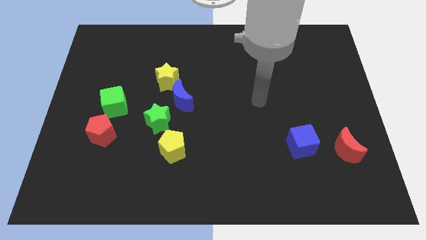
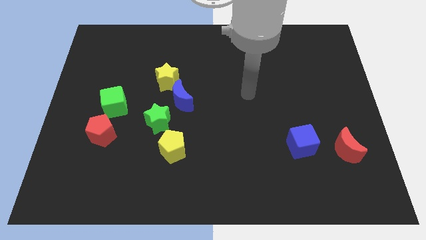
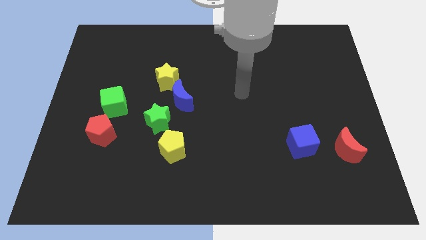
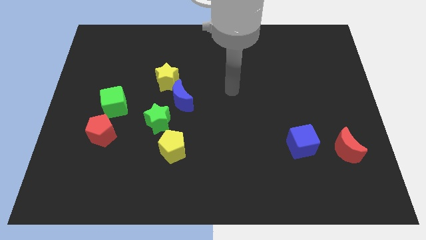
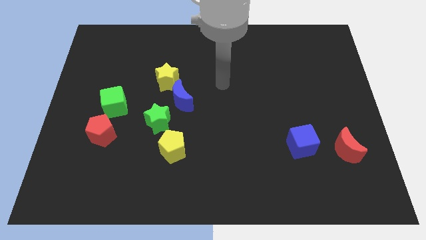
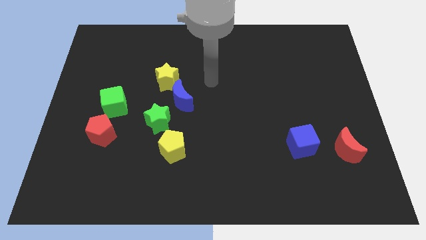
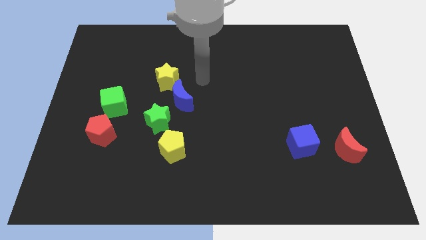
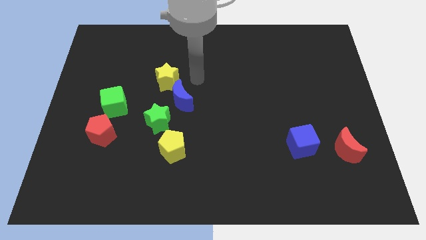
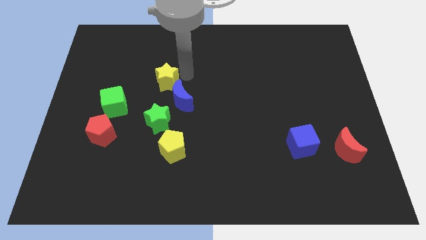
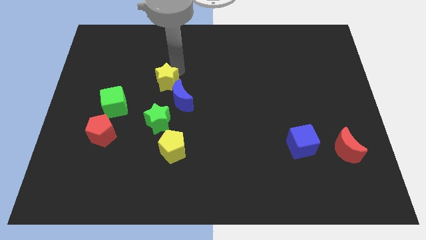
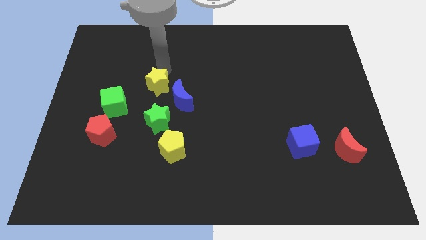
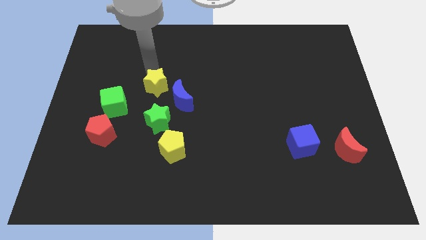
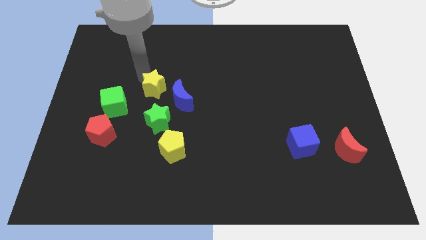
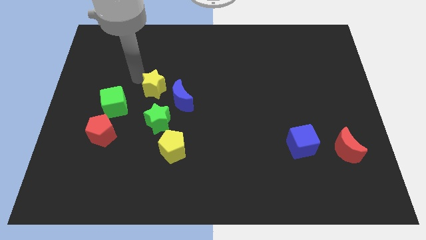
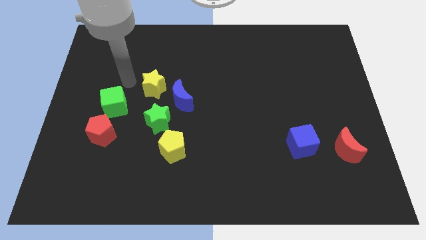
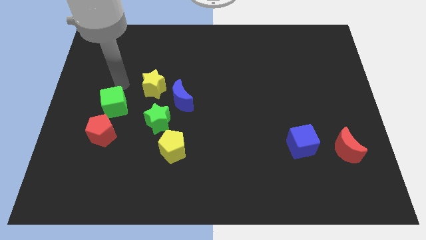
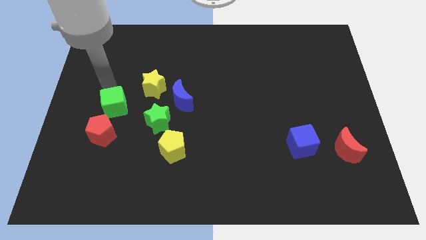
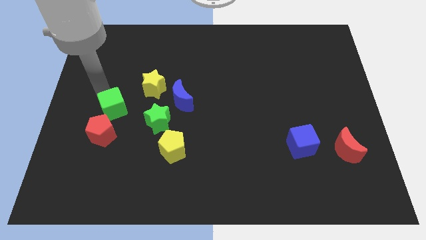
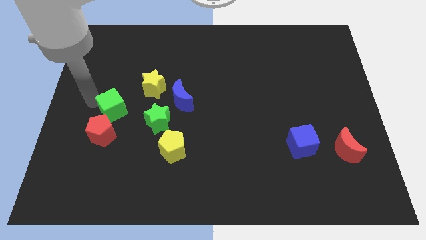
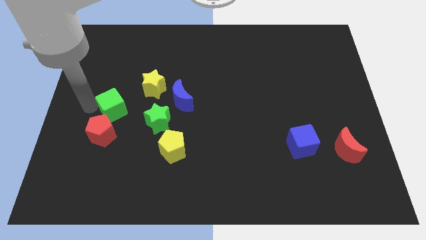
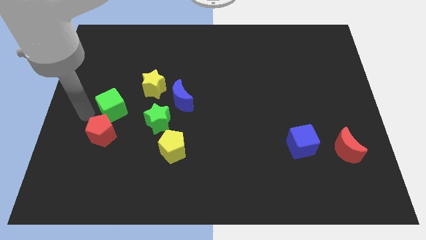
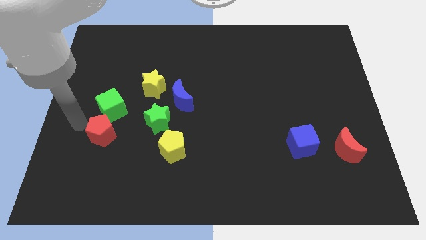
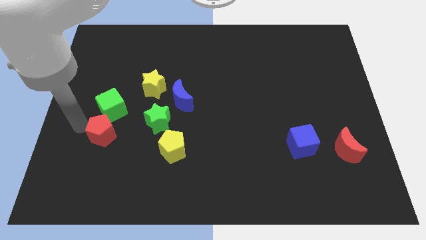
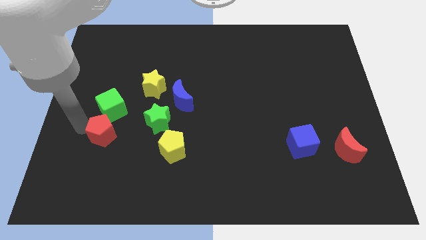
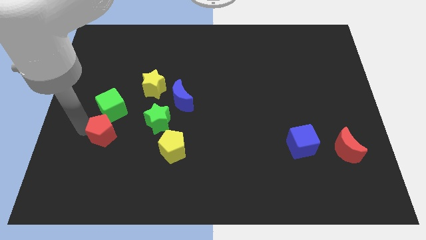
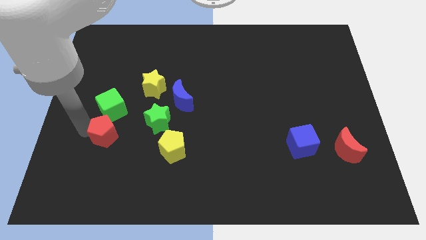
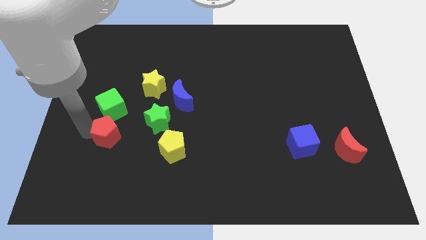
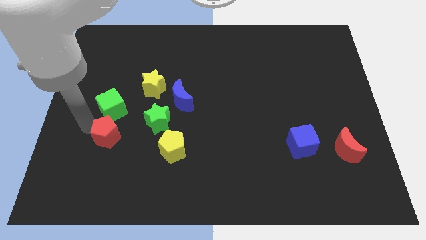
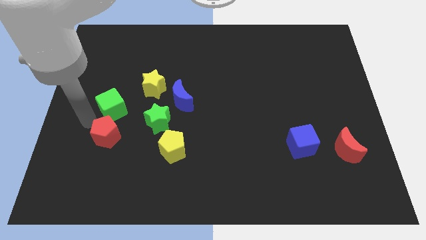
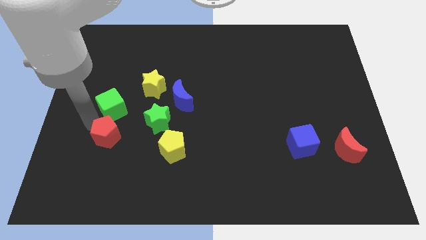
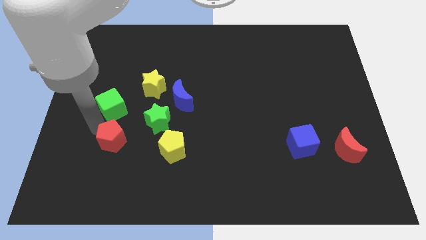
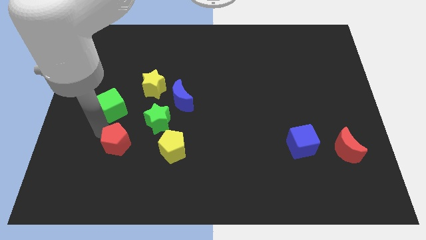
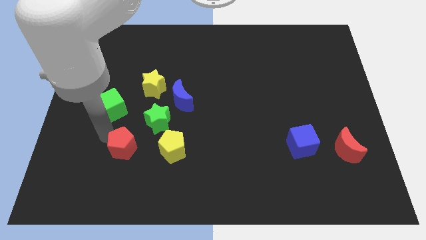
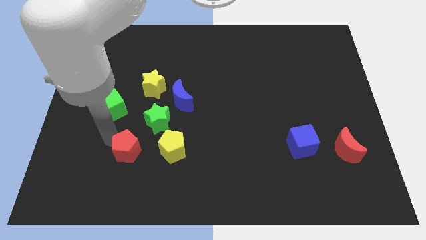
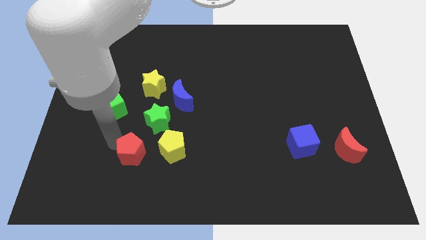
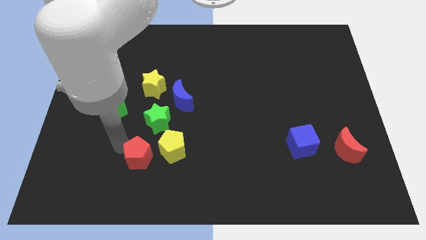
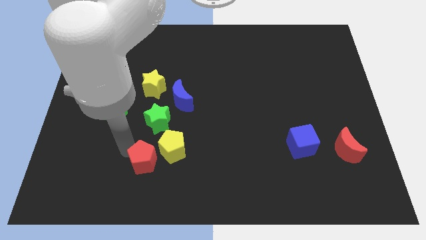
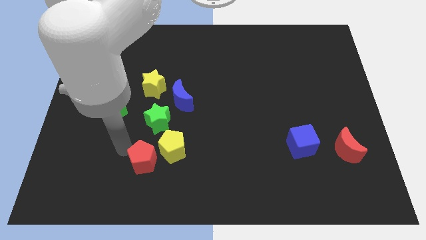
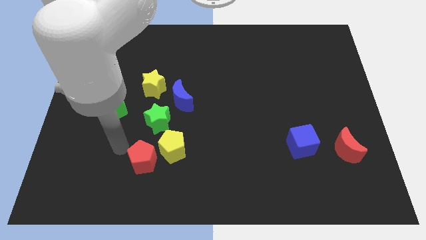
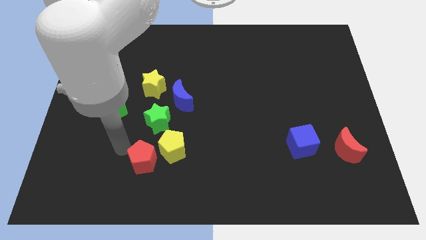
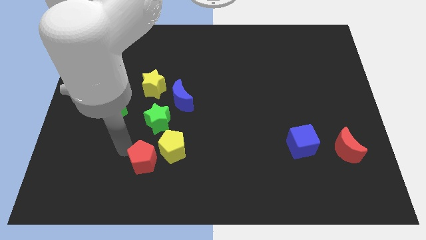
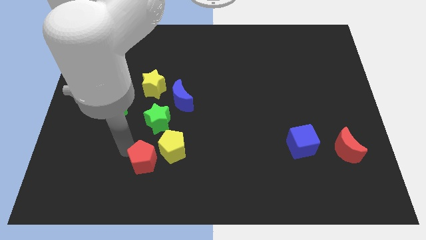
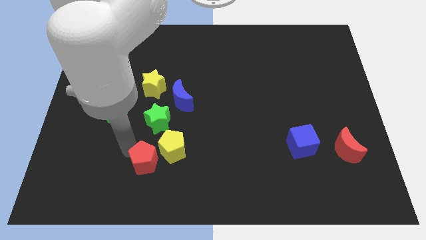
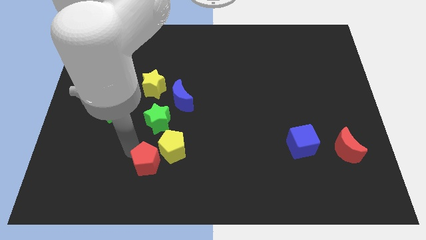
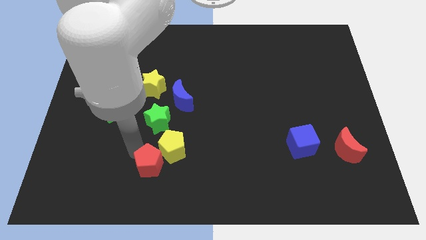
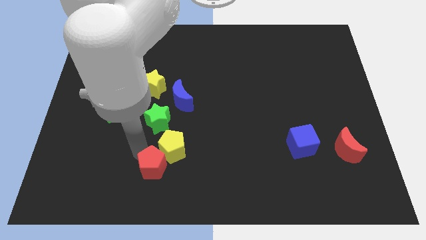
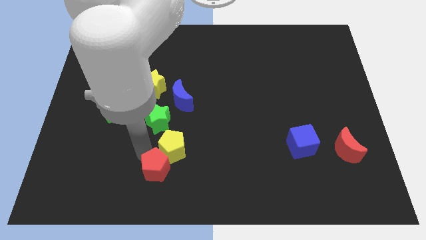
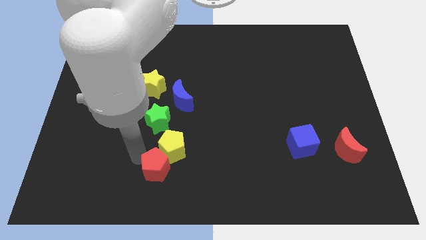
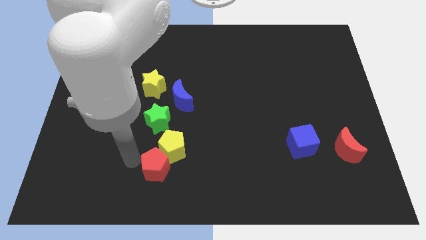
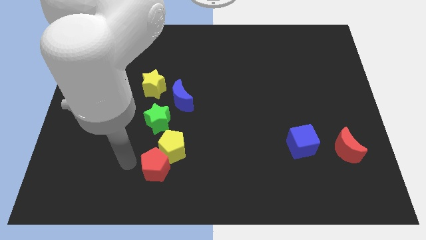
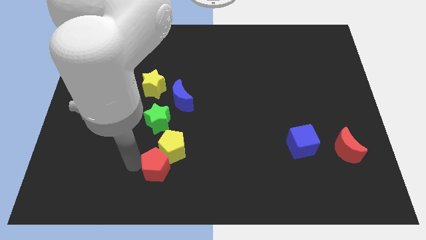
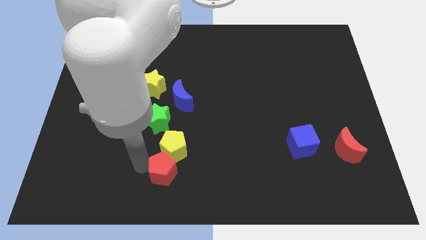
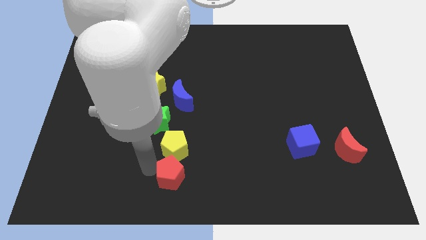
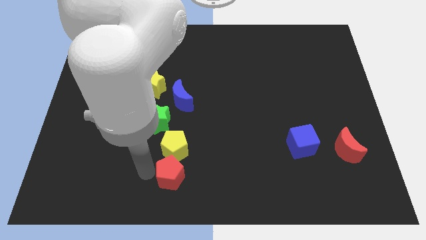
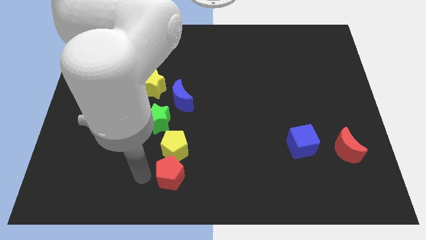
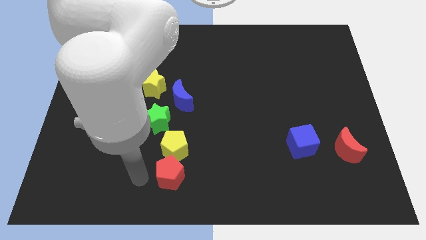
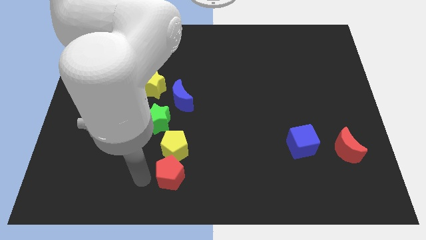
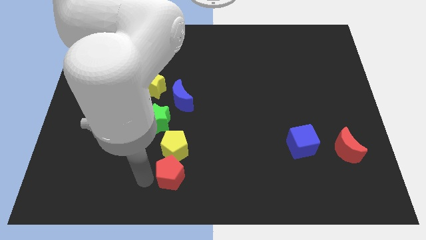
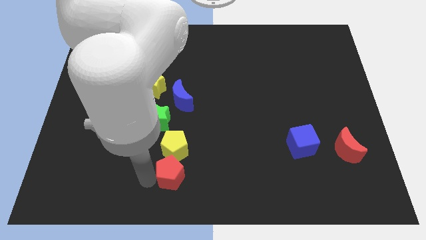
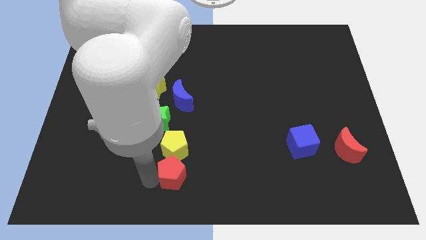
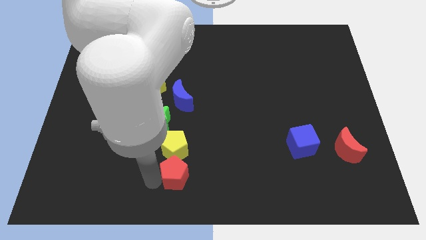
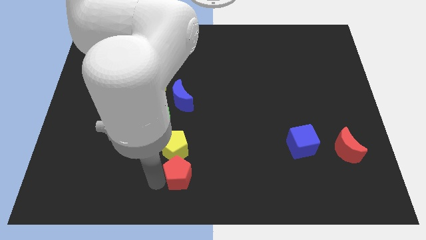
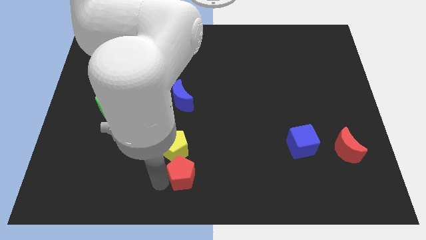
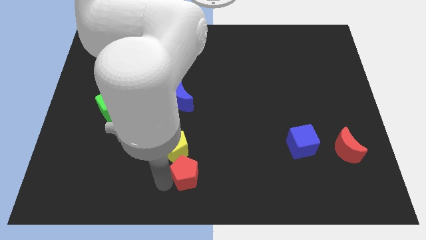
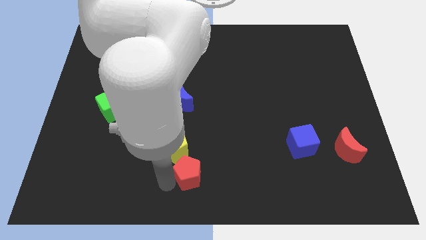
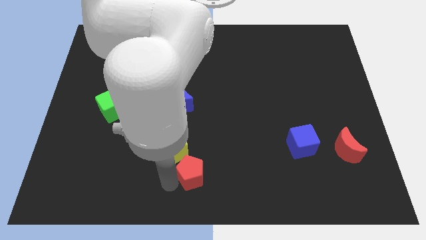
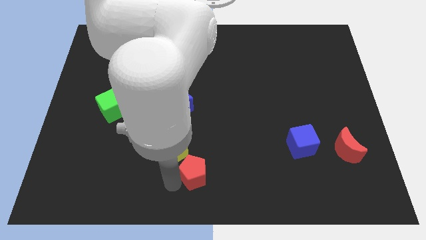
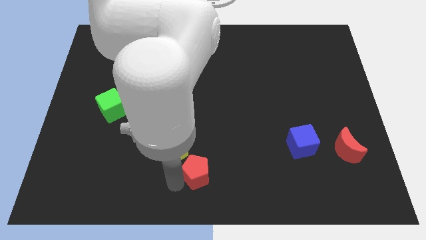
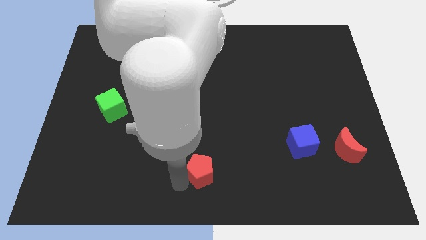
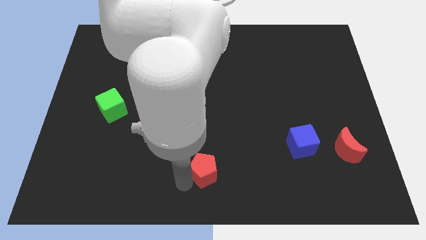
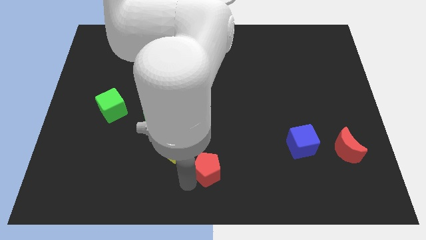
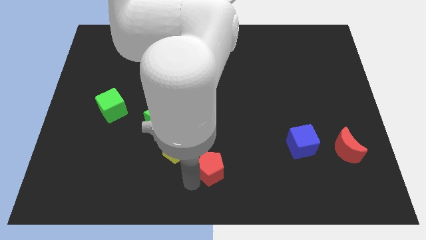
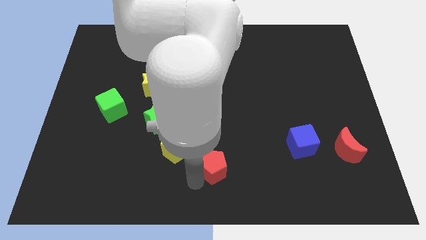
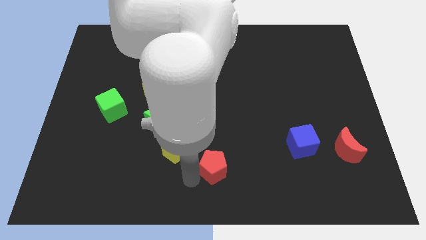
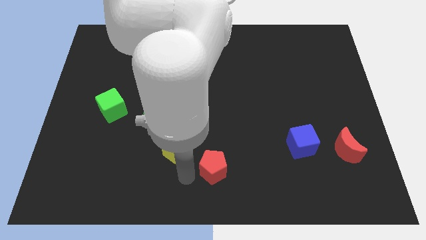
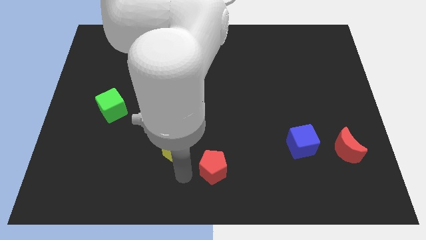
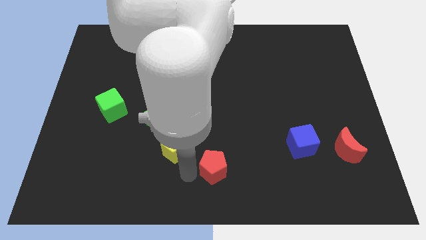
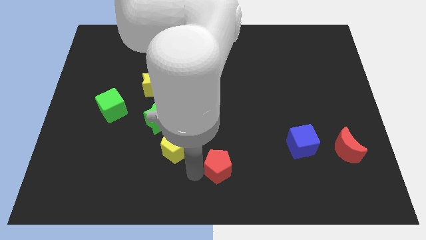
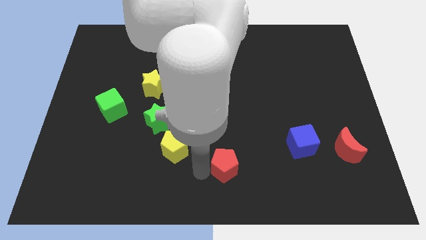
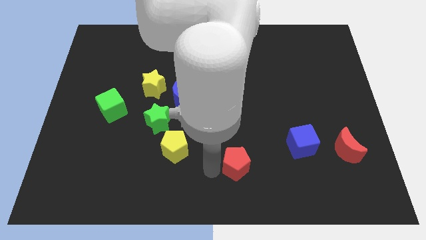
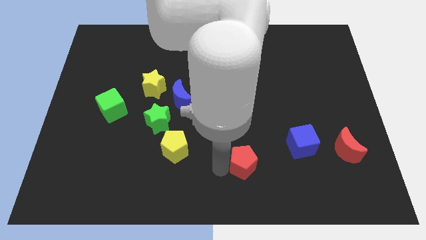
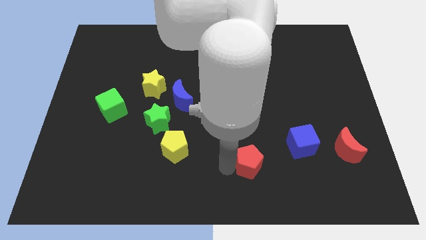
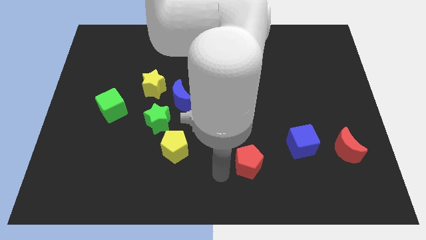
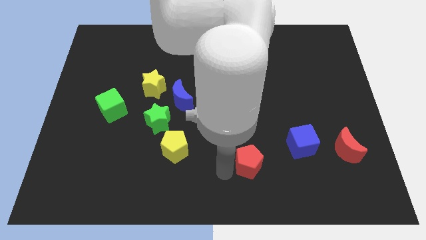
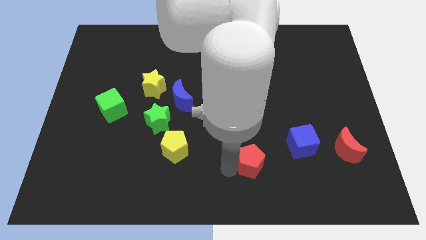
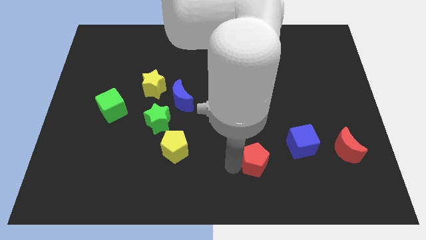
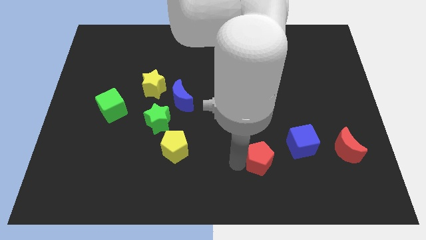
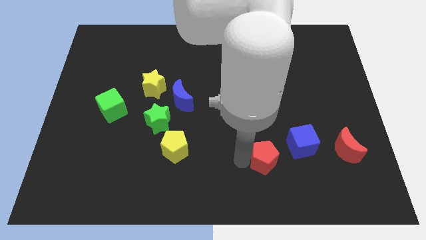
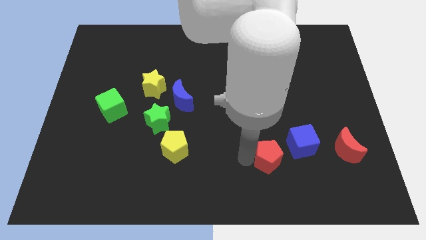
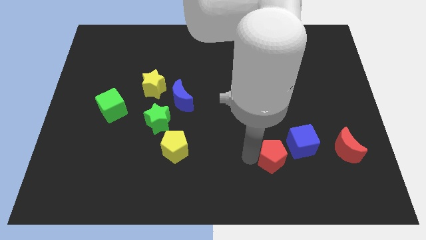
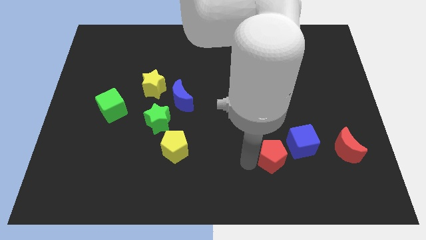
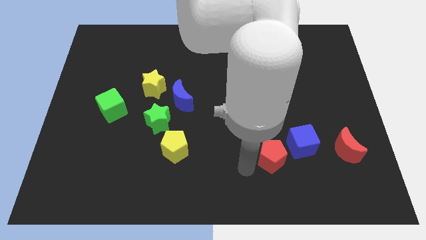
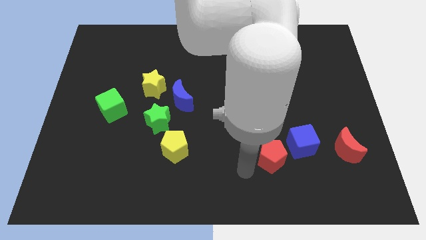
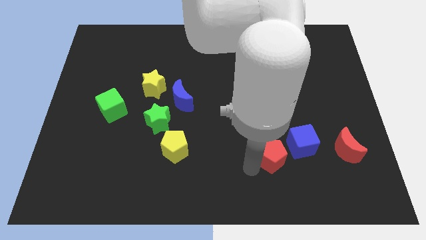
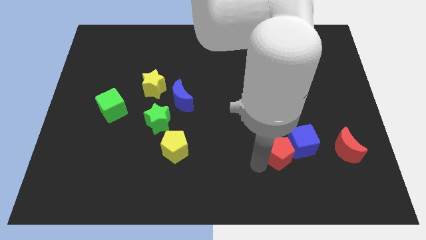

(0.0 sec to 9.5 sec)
push the red pentagon to the blue cube
